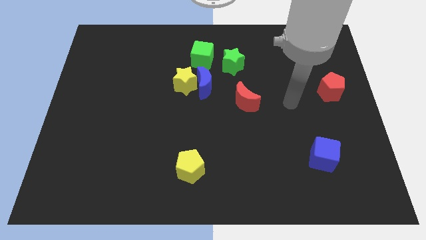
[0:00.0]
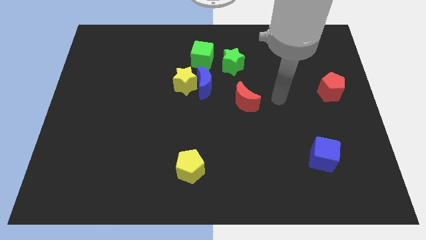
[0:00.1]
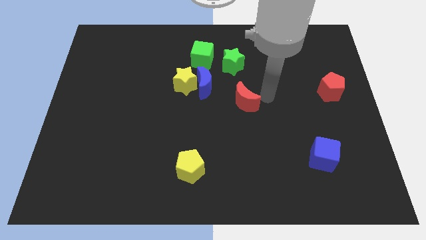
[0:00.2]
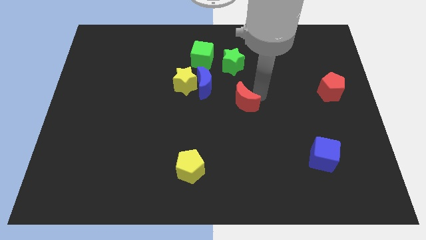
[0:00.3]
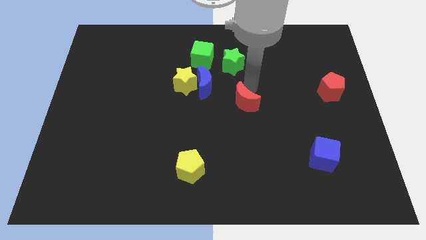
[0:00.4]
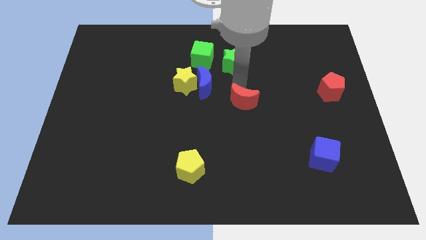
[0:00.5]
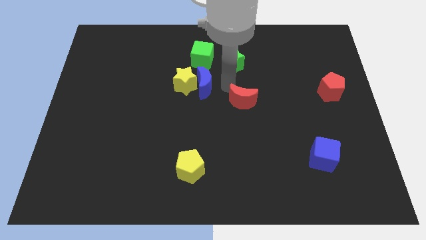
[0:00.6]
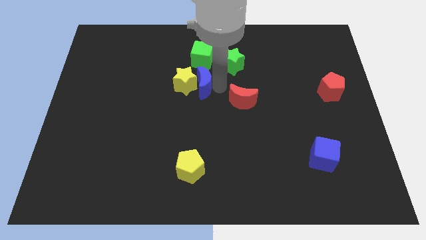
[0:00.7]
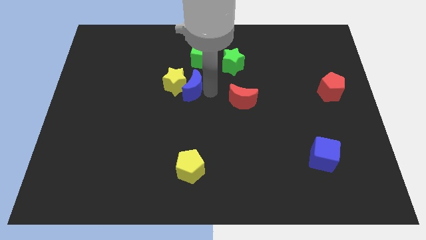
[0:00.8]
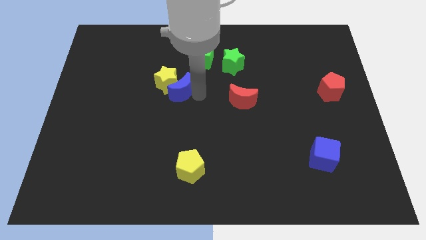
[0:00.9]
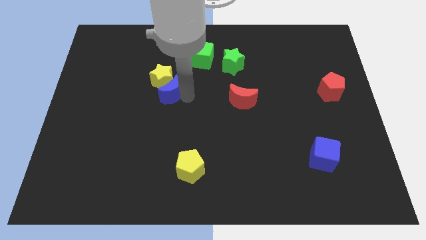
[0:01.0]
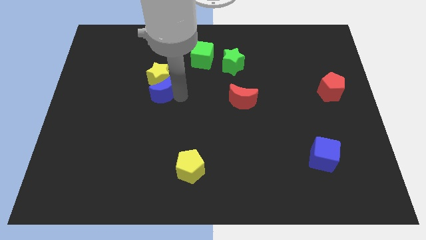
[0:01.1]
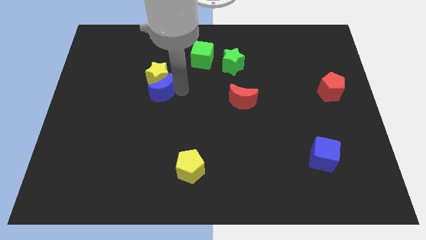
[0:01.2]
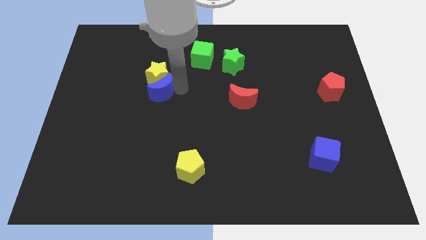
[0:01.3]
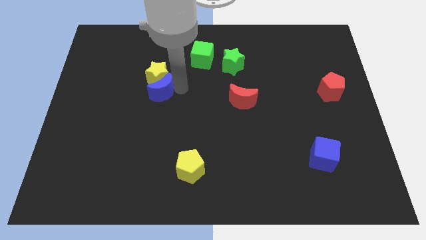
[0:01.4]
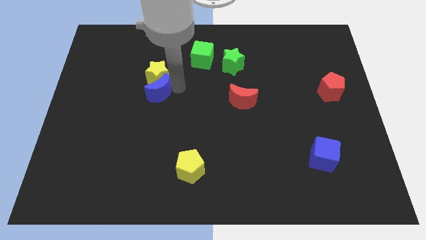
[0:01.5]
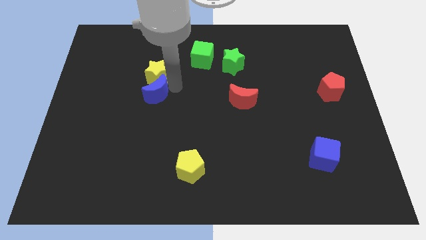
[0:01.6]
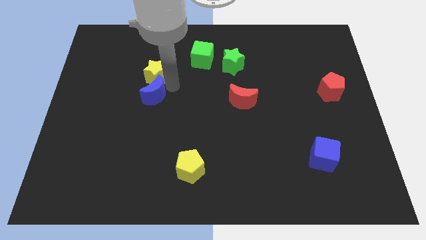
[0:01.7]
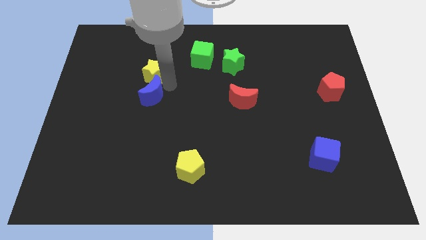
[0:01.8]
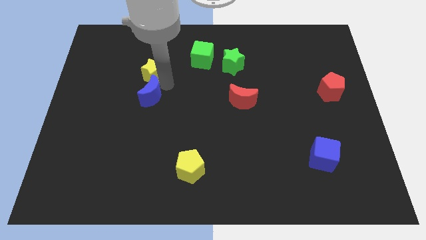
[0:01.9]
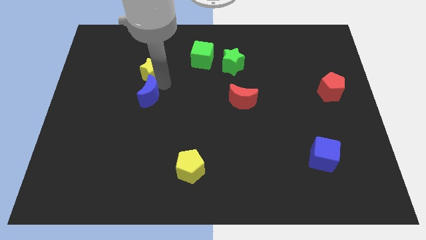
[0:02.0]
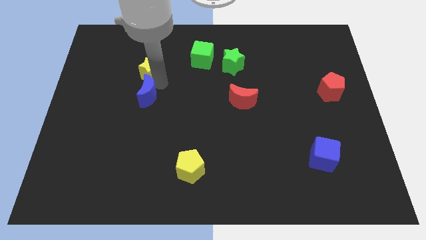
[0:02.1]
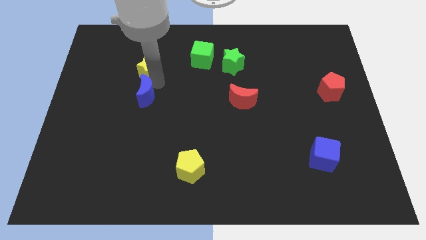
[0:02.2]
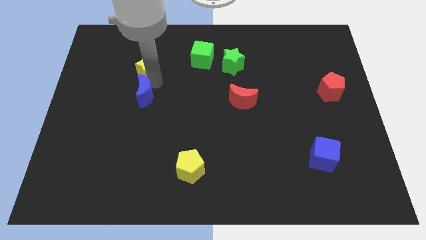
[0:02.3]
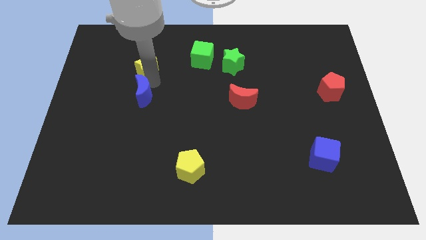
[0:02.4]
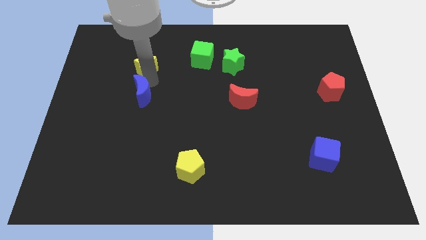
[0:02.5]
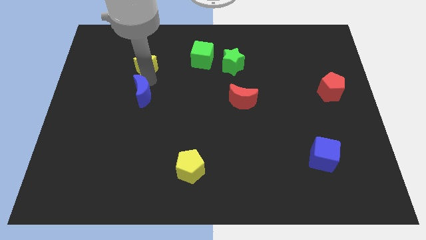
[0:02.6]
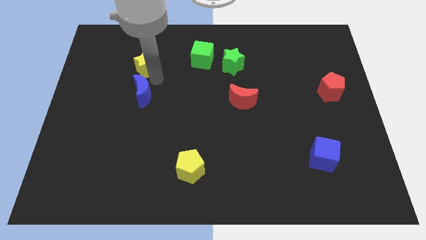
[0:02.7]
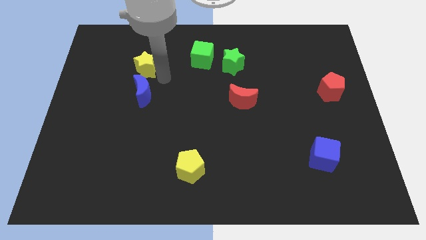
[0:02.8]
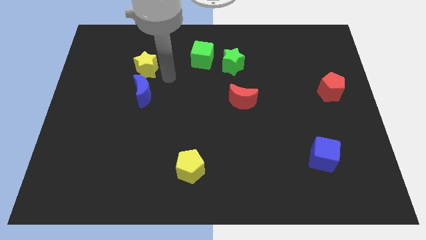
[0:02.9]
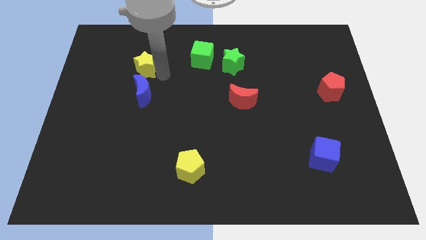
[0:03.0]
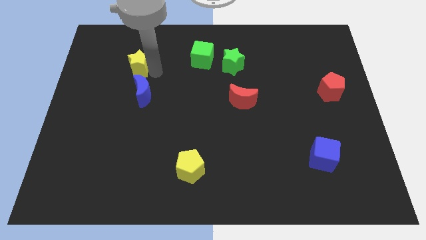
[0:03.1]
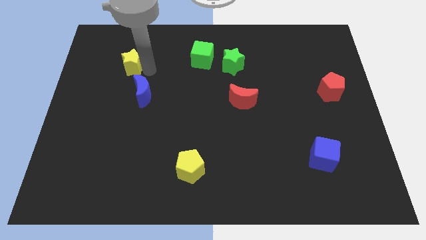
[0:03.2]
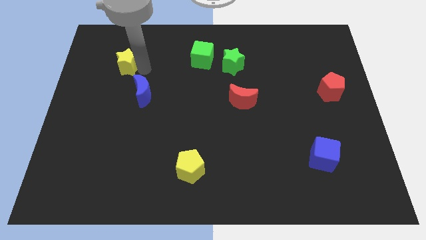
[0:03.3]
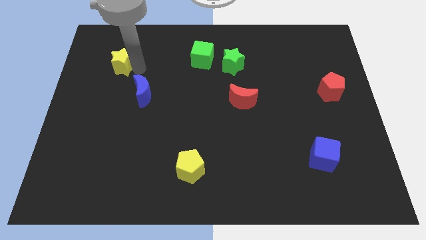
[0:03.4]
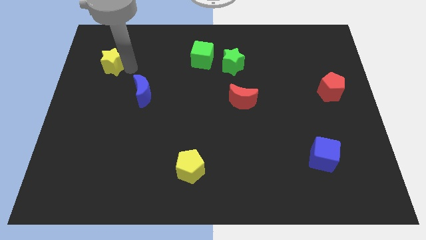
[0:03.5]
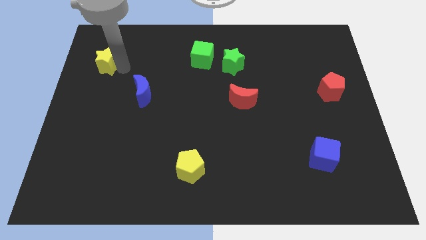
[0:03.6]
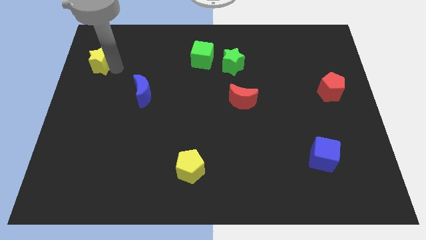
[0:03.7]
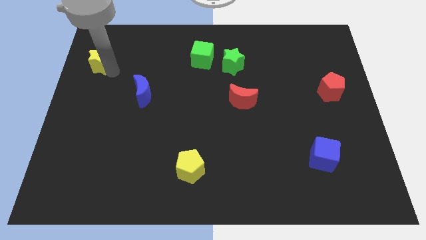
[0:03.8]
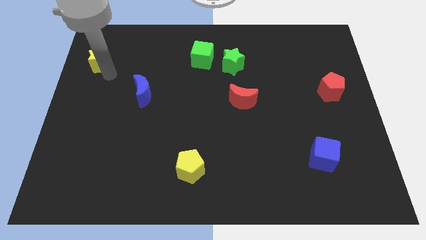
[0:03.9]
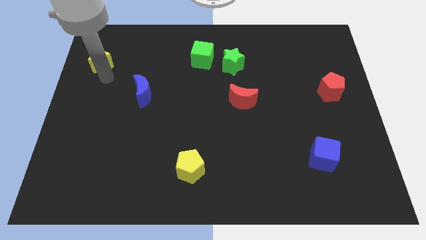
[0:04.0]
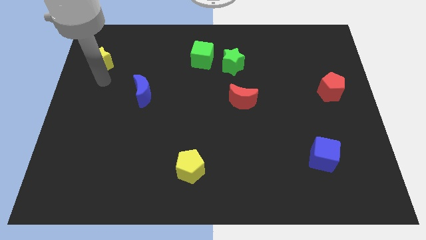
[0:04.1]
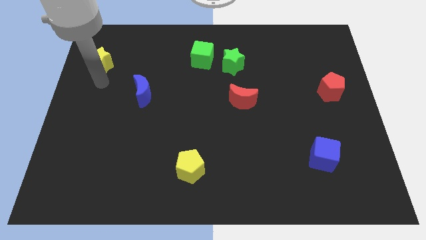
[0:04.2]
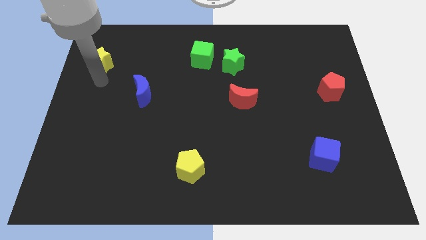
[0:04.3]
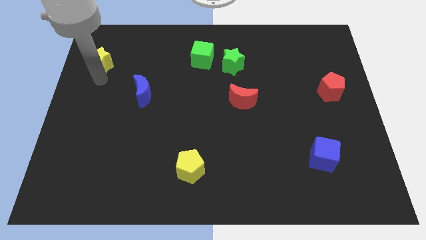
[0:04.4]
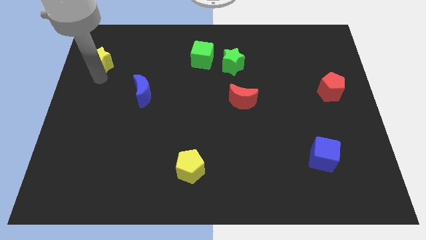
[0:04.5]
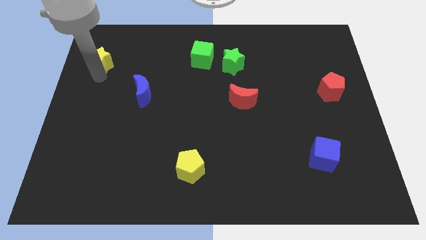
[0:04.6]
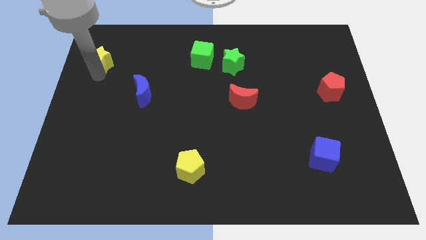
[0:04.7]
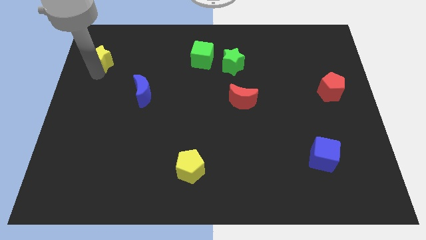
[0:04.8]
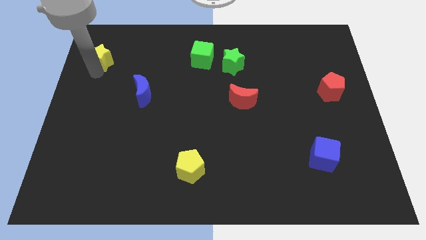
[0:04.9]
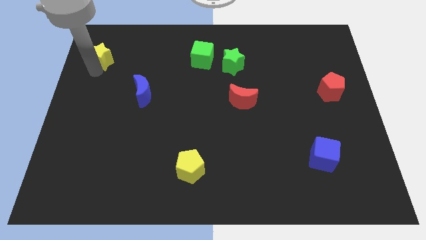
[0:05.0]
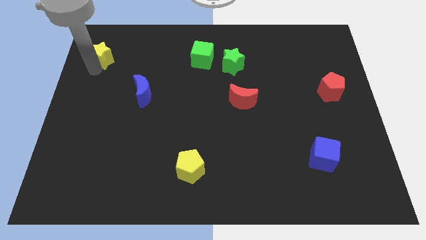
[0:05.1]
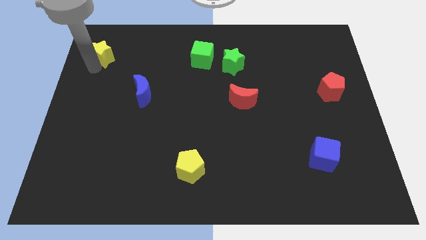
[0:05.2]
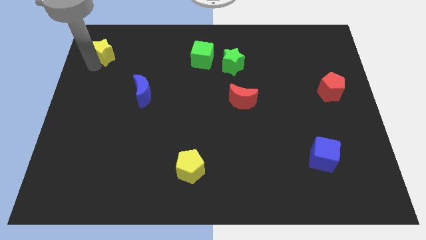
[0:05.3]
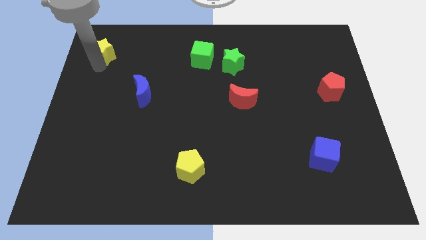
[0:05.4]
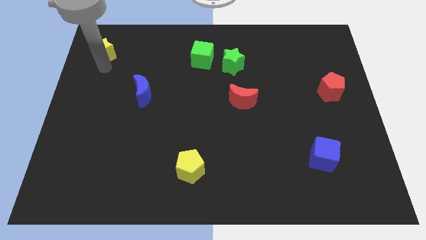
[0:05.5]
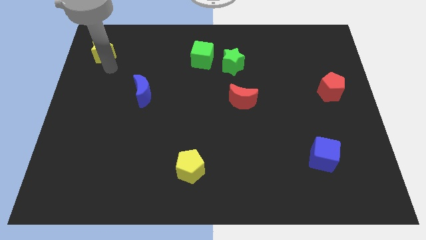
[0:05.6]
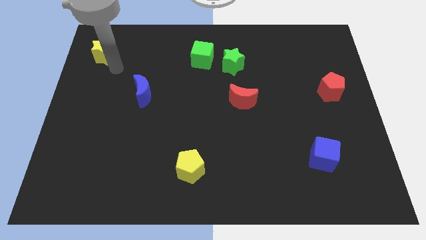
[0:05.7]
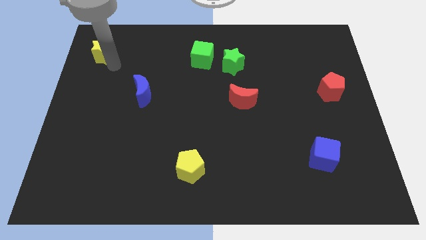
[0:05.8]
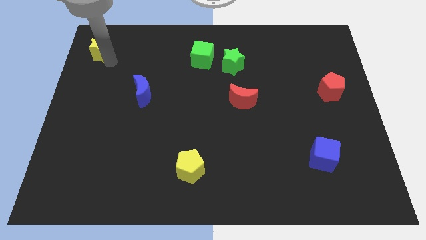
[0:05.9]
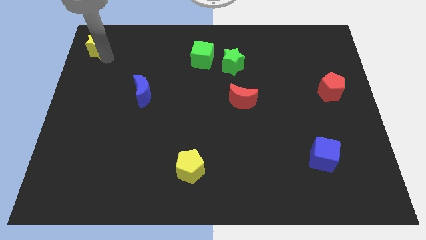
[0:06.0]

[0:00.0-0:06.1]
push the yellow star to the upper left corner
